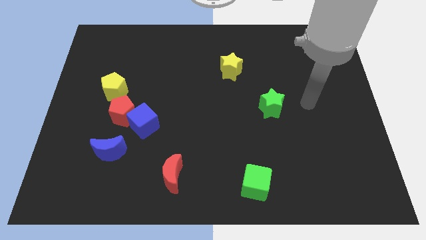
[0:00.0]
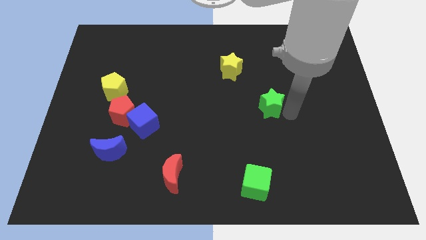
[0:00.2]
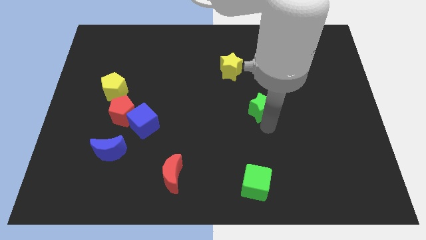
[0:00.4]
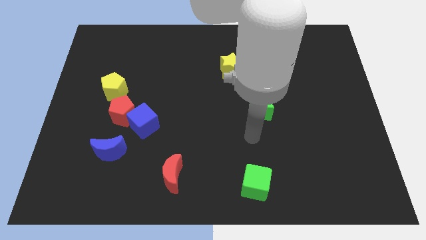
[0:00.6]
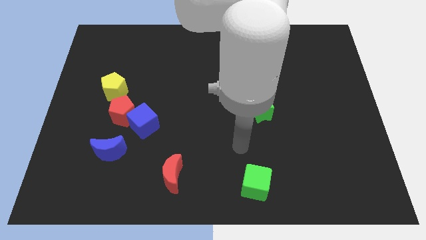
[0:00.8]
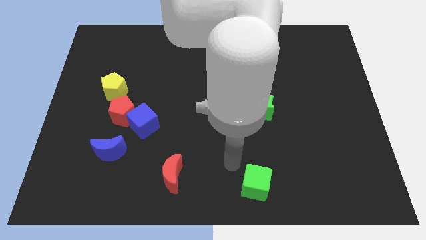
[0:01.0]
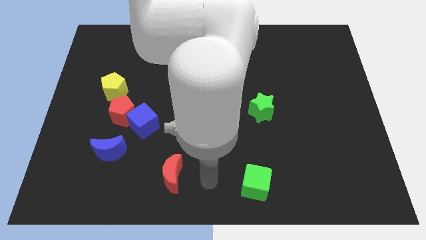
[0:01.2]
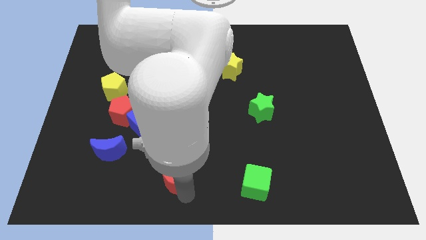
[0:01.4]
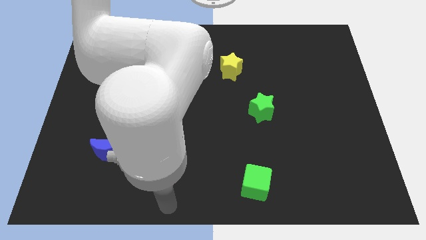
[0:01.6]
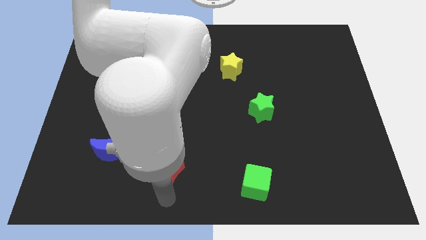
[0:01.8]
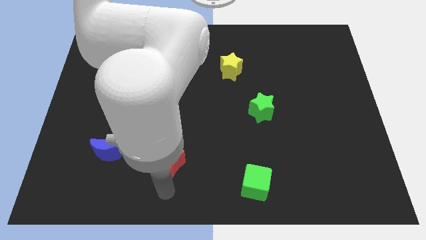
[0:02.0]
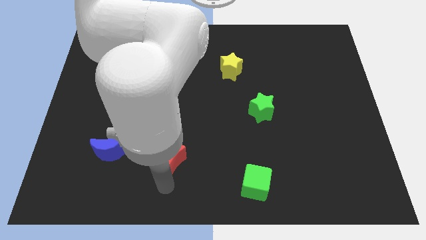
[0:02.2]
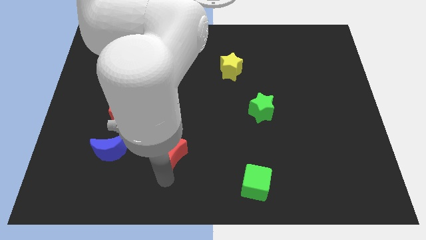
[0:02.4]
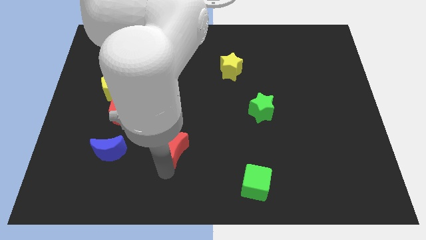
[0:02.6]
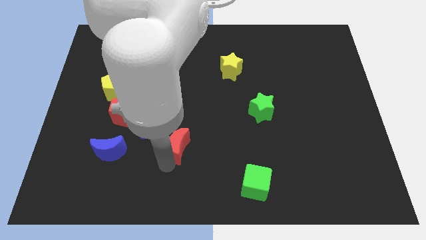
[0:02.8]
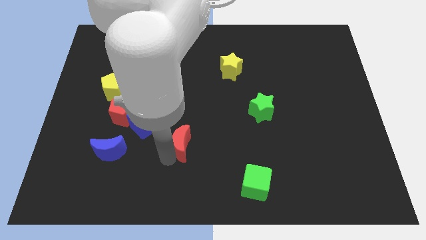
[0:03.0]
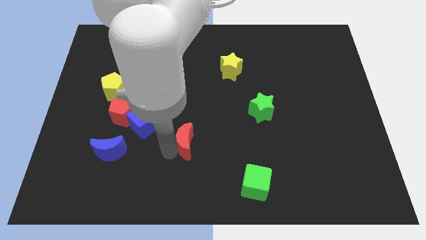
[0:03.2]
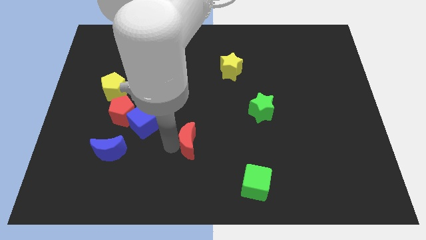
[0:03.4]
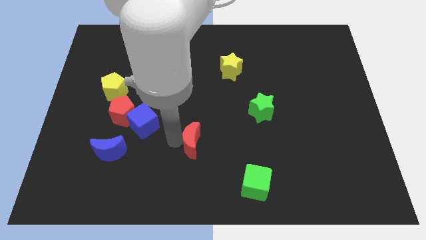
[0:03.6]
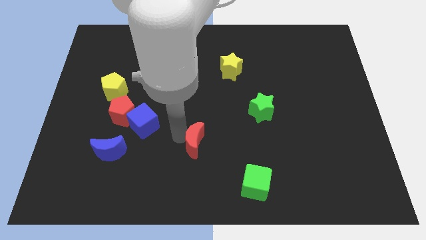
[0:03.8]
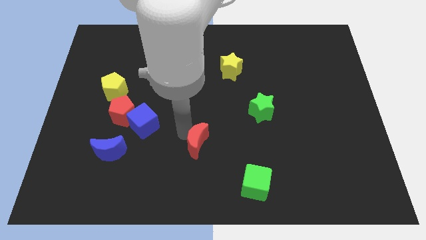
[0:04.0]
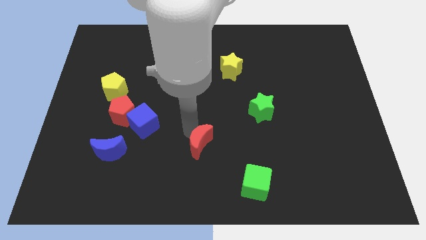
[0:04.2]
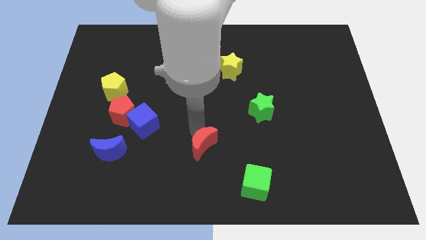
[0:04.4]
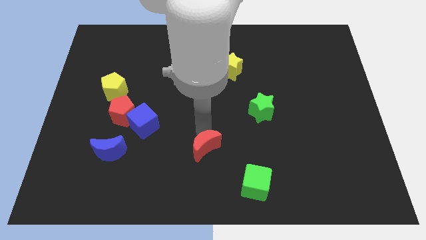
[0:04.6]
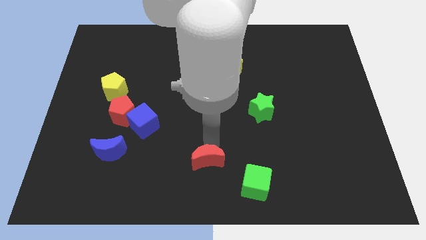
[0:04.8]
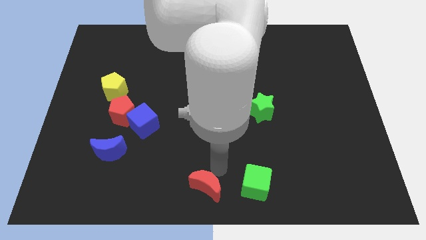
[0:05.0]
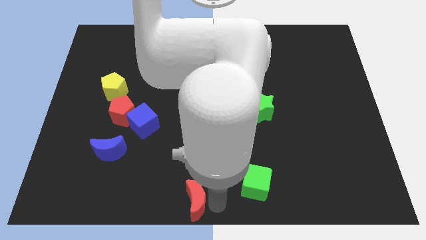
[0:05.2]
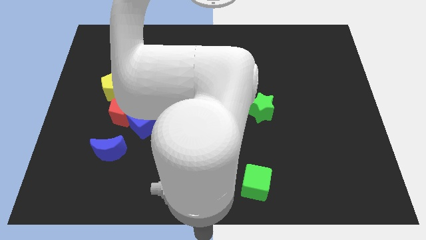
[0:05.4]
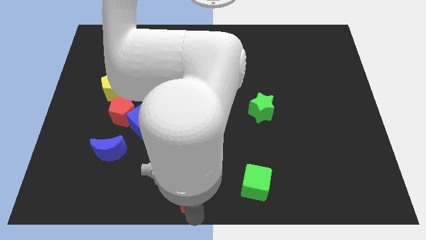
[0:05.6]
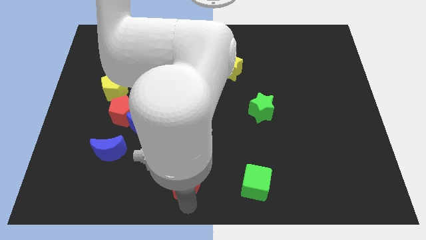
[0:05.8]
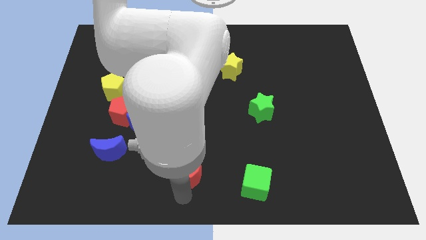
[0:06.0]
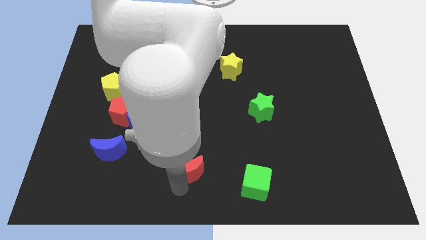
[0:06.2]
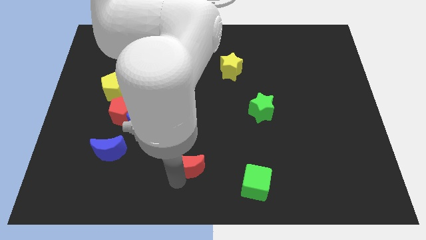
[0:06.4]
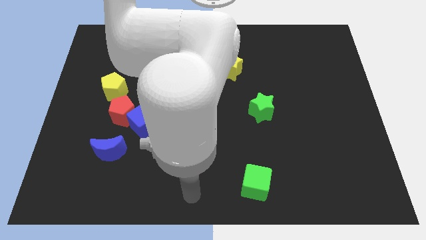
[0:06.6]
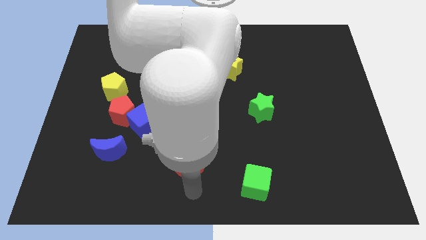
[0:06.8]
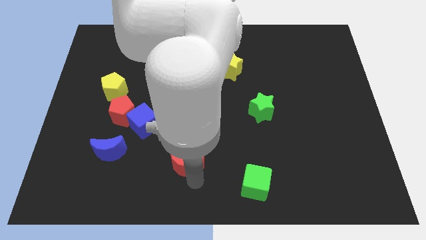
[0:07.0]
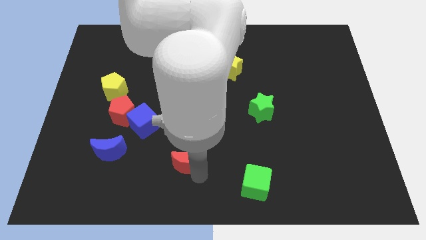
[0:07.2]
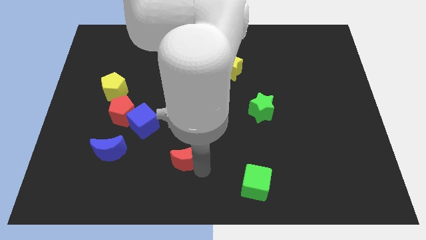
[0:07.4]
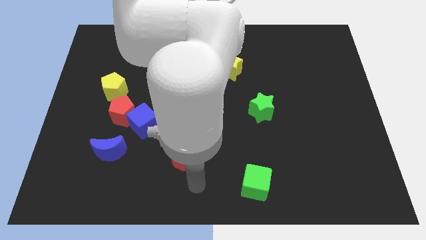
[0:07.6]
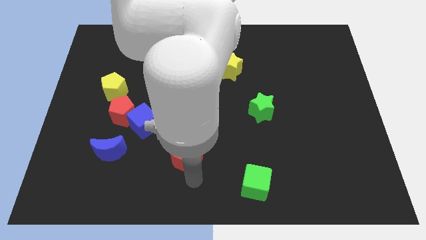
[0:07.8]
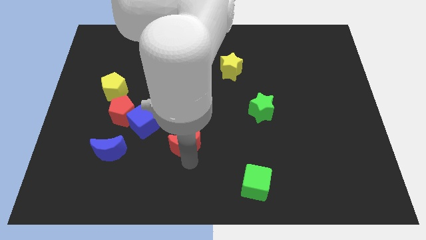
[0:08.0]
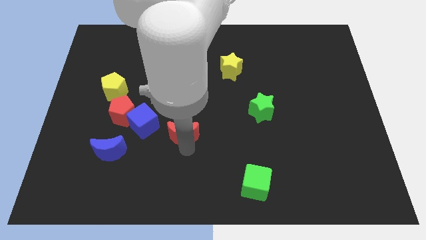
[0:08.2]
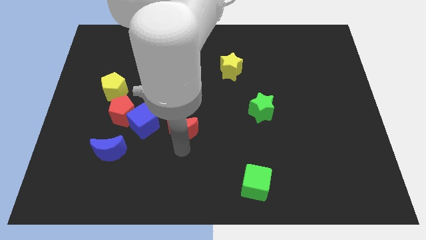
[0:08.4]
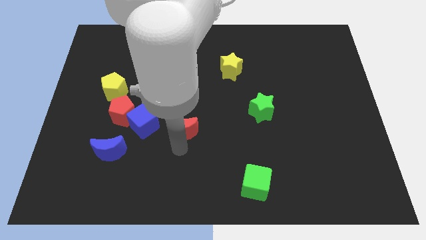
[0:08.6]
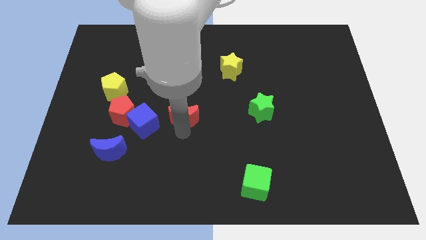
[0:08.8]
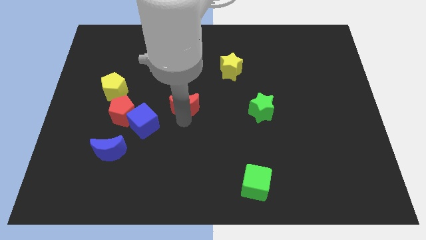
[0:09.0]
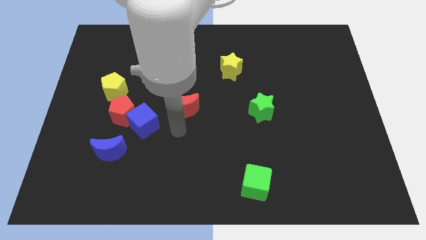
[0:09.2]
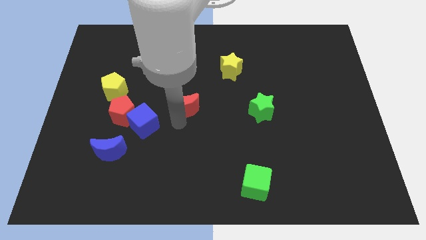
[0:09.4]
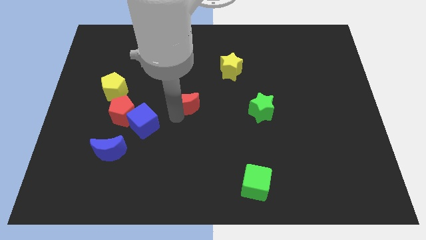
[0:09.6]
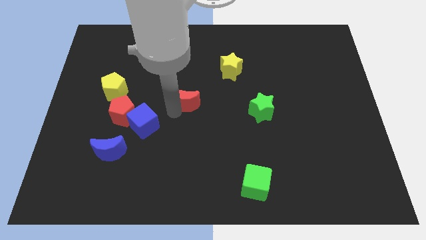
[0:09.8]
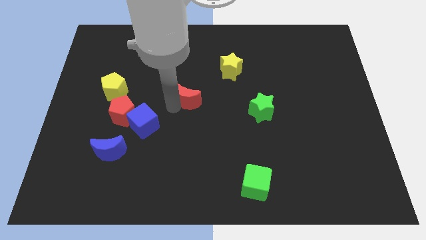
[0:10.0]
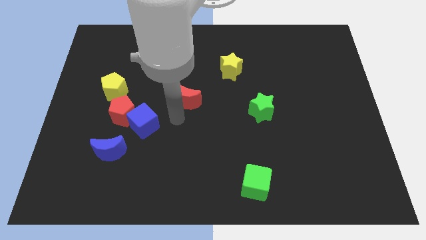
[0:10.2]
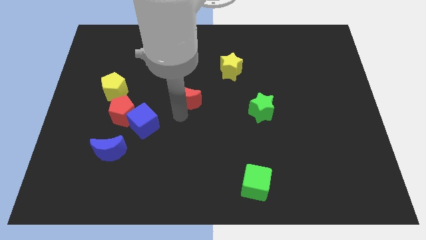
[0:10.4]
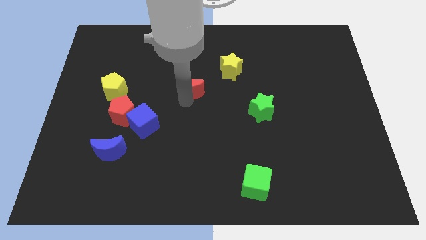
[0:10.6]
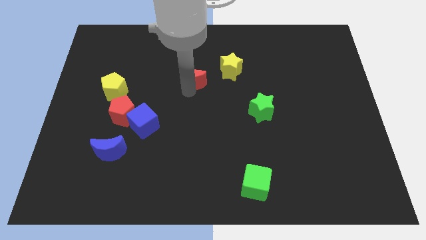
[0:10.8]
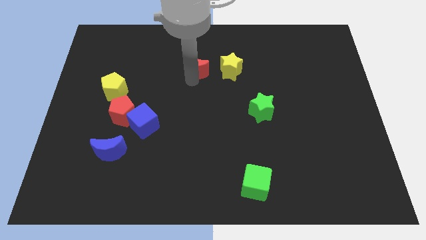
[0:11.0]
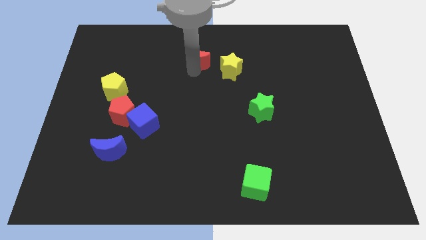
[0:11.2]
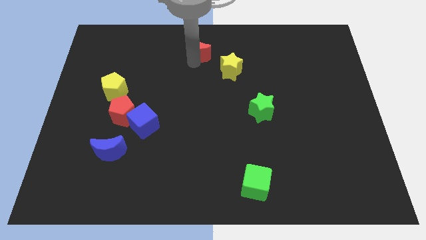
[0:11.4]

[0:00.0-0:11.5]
move the red moon to the top side

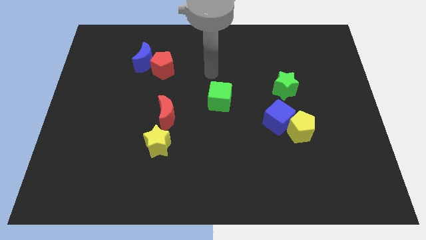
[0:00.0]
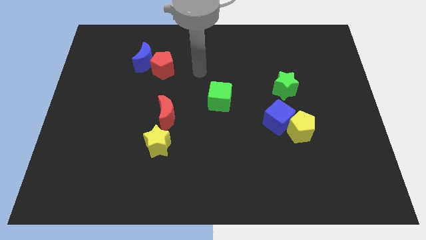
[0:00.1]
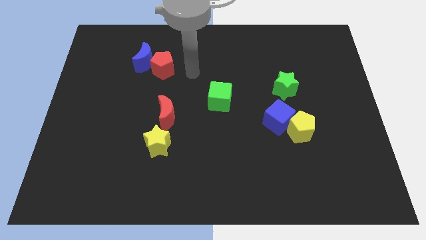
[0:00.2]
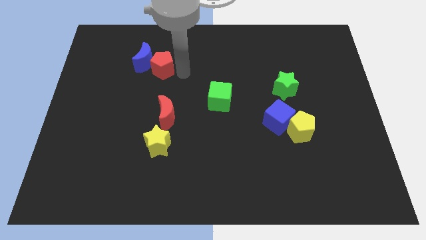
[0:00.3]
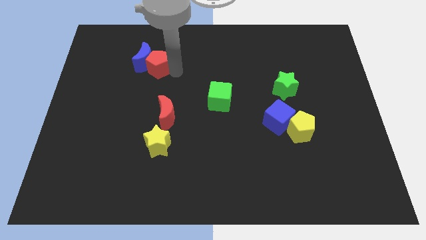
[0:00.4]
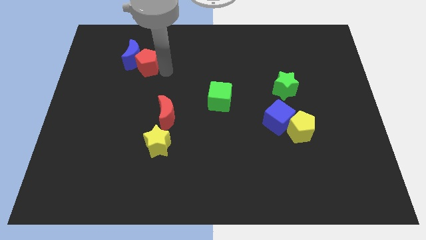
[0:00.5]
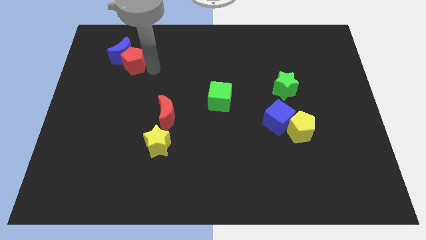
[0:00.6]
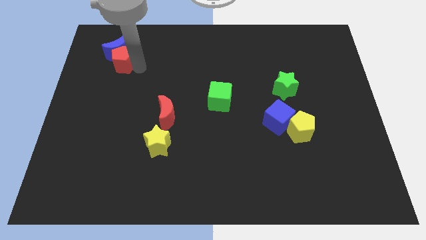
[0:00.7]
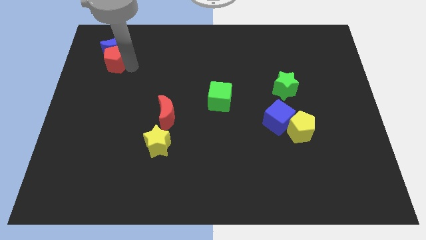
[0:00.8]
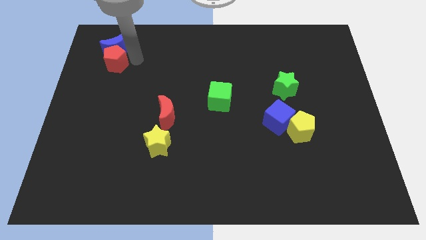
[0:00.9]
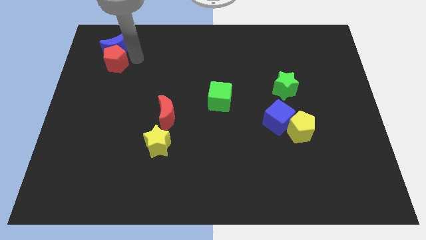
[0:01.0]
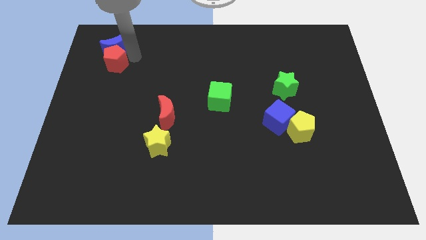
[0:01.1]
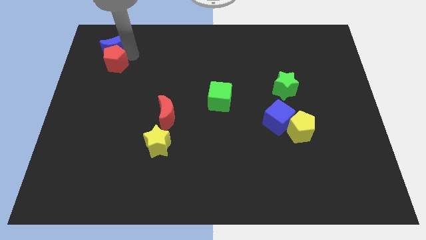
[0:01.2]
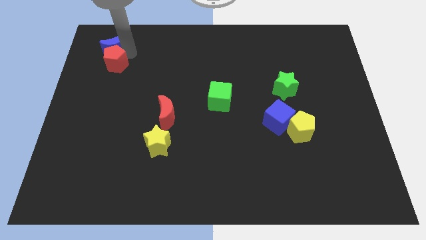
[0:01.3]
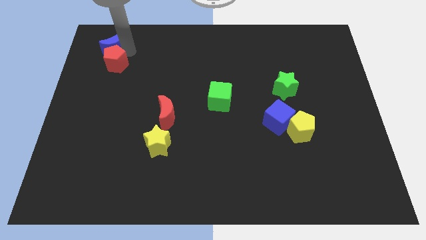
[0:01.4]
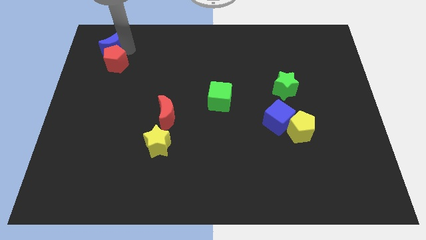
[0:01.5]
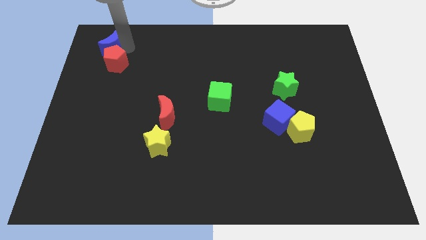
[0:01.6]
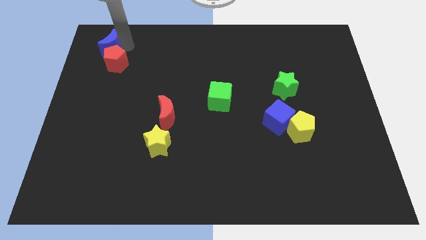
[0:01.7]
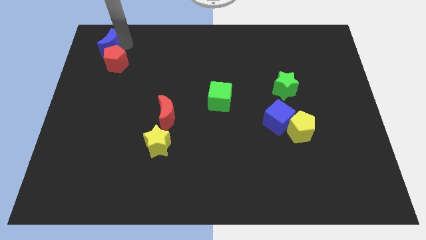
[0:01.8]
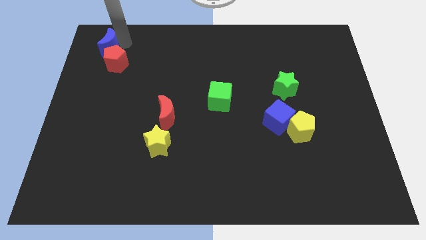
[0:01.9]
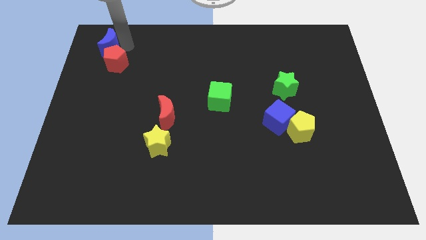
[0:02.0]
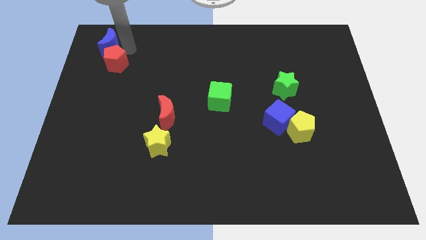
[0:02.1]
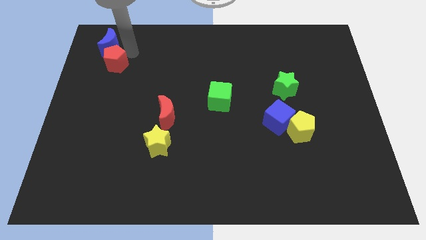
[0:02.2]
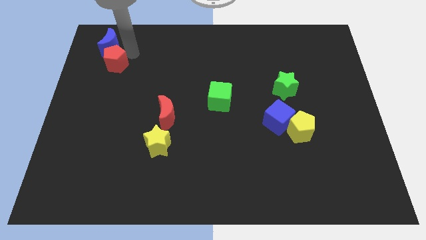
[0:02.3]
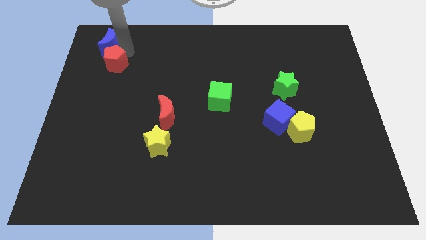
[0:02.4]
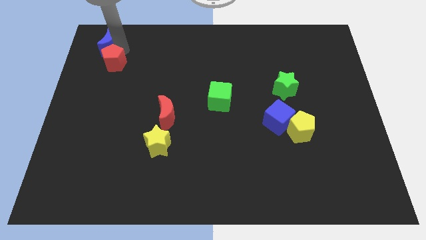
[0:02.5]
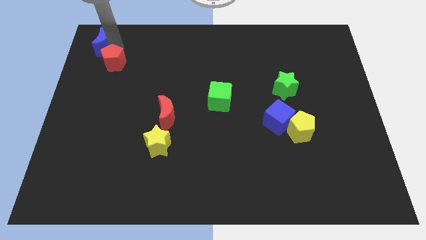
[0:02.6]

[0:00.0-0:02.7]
slide the blue moon to the top left of the board
